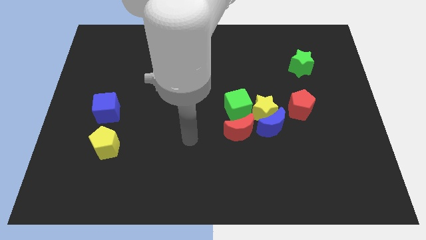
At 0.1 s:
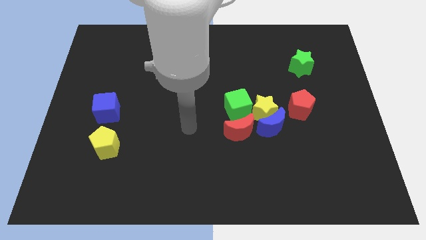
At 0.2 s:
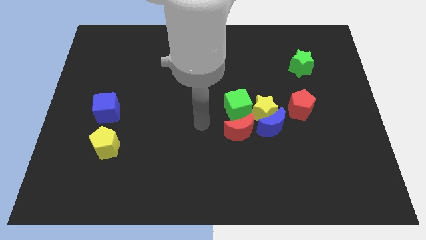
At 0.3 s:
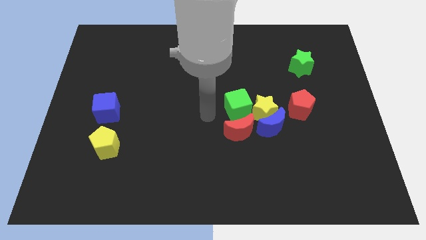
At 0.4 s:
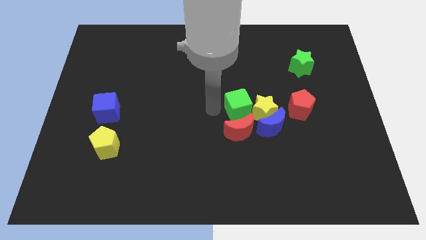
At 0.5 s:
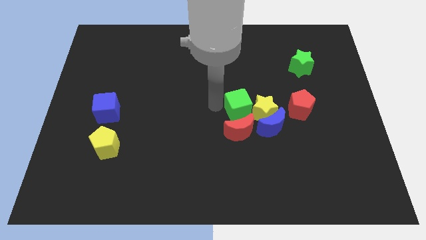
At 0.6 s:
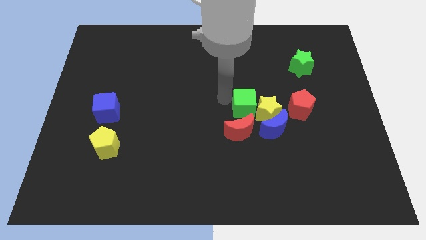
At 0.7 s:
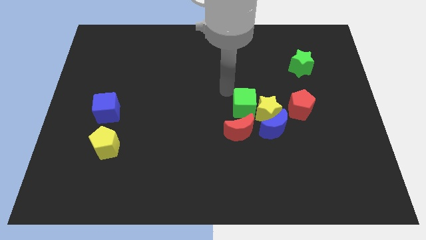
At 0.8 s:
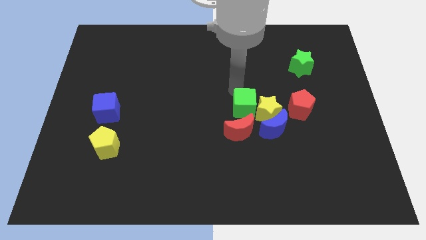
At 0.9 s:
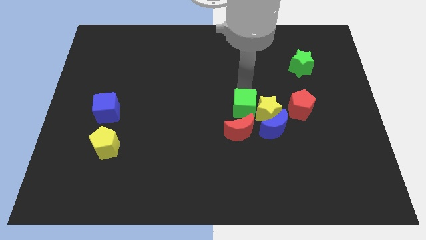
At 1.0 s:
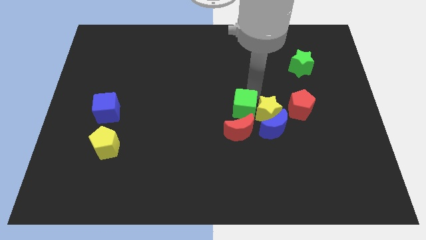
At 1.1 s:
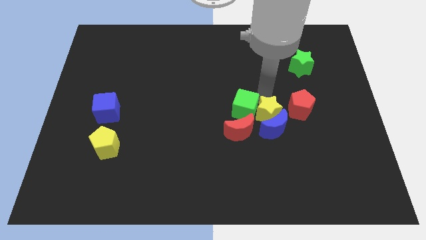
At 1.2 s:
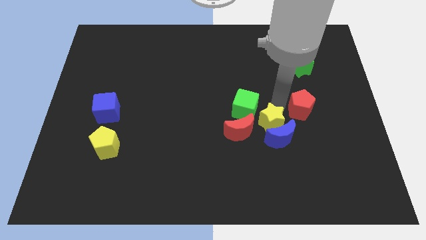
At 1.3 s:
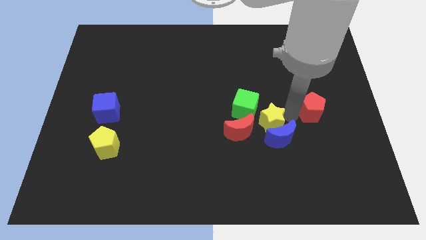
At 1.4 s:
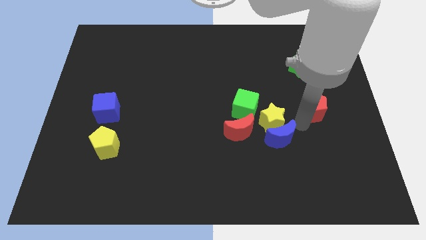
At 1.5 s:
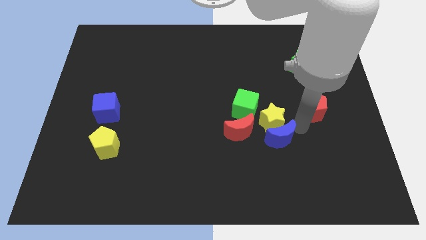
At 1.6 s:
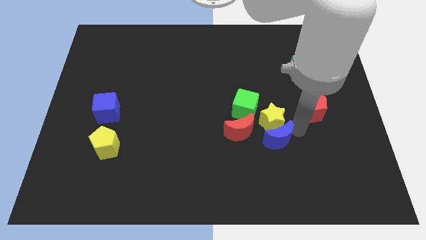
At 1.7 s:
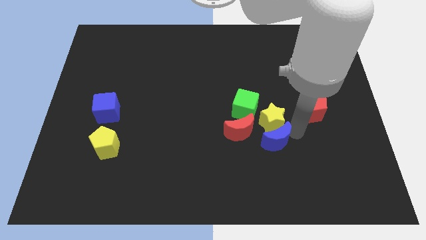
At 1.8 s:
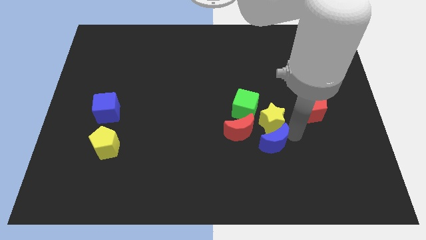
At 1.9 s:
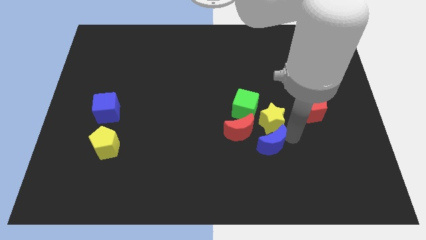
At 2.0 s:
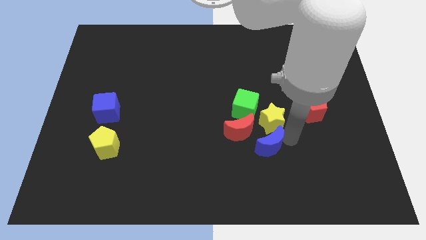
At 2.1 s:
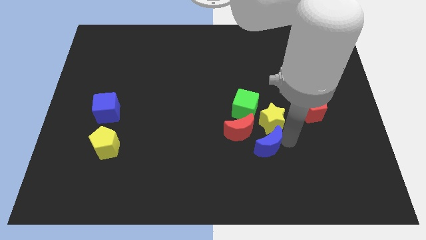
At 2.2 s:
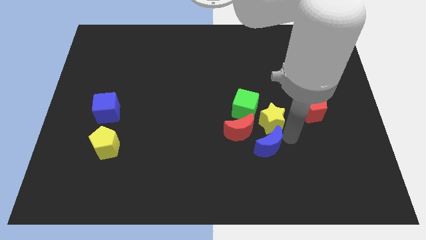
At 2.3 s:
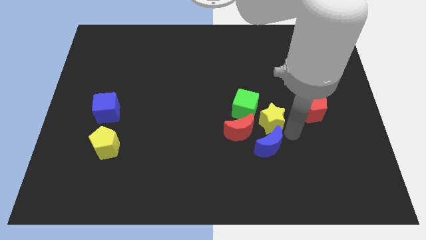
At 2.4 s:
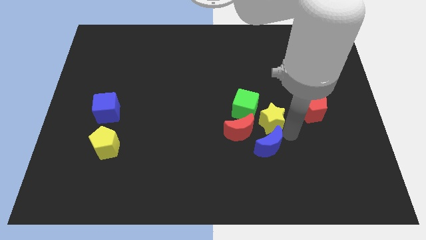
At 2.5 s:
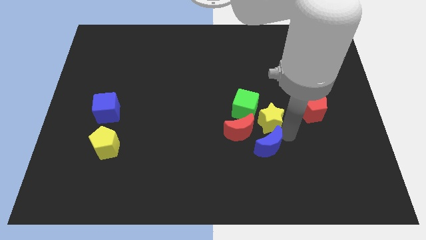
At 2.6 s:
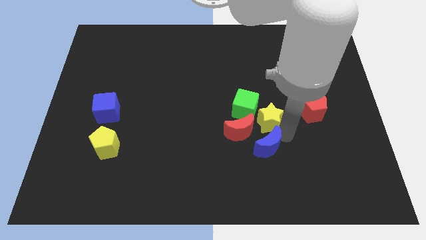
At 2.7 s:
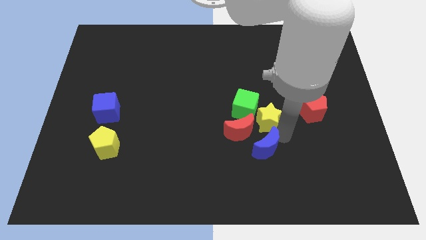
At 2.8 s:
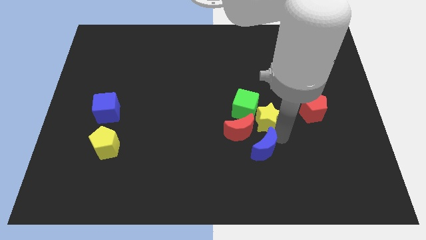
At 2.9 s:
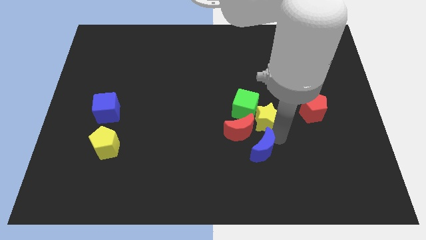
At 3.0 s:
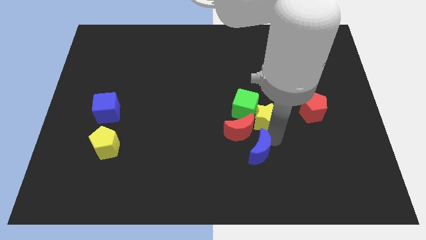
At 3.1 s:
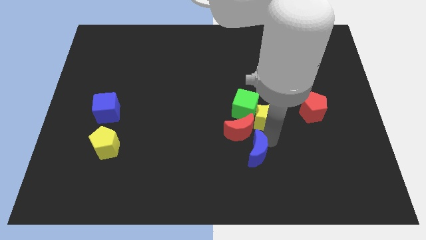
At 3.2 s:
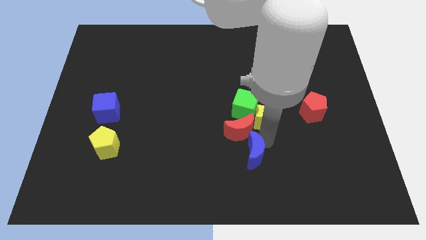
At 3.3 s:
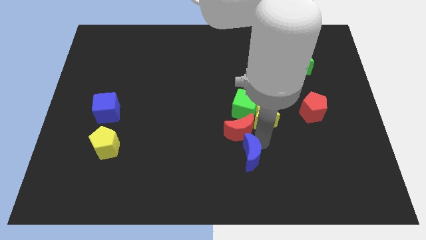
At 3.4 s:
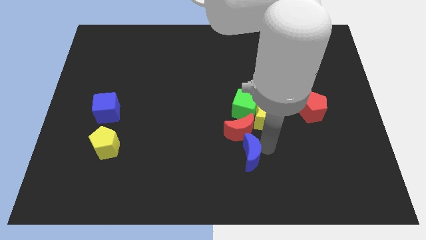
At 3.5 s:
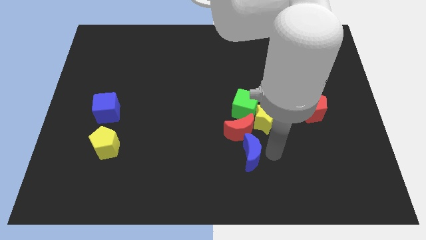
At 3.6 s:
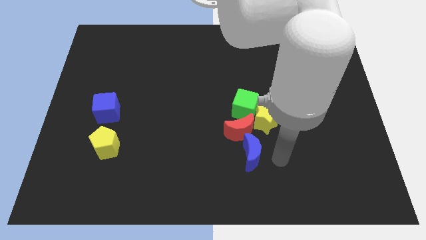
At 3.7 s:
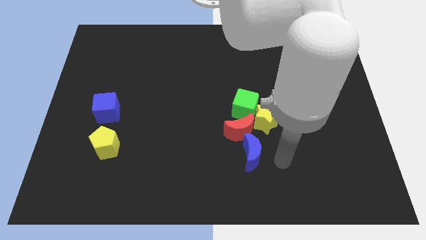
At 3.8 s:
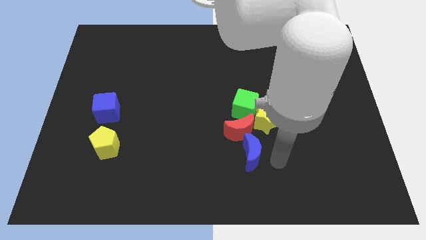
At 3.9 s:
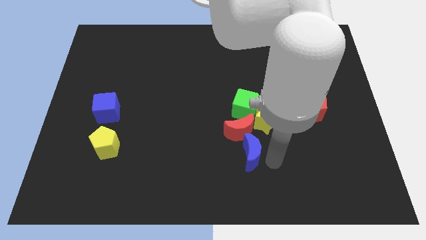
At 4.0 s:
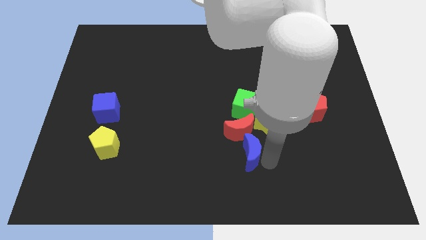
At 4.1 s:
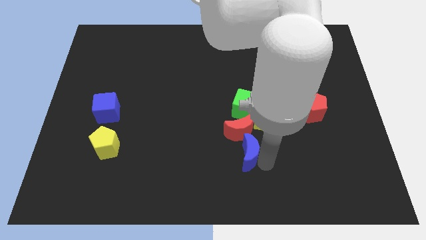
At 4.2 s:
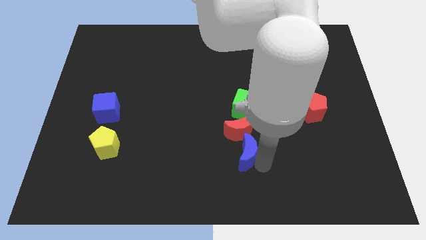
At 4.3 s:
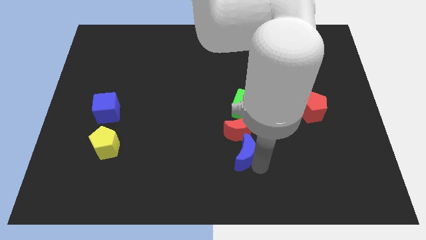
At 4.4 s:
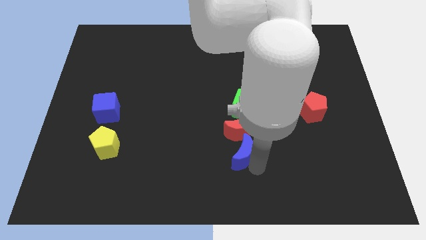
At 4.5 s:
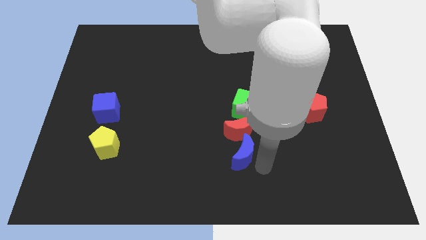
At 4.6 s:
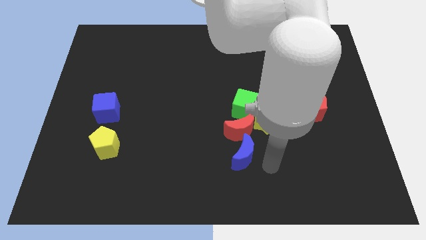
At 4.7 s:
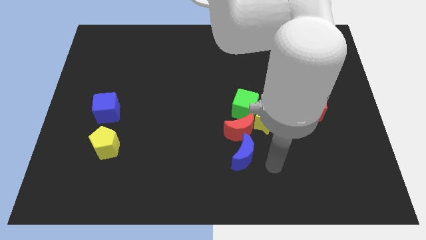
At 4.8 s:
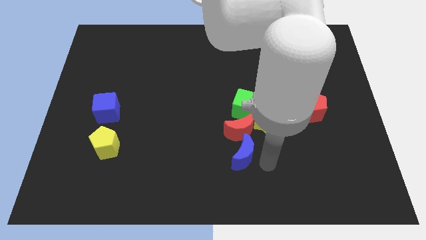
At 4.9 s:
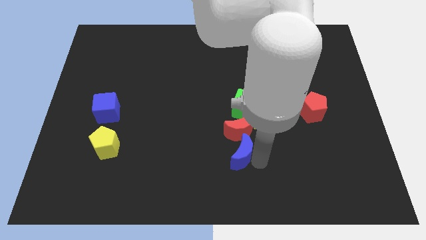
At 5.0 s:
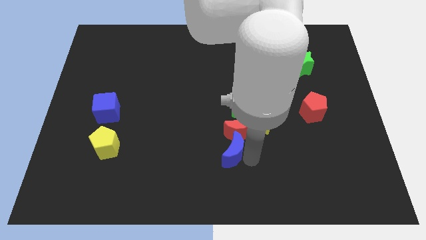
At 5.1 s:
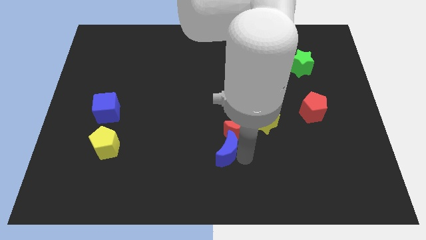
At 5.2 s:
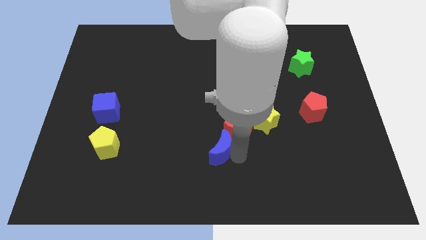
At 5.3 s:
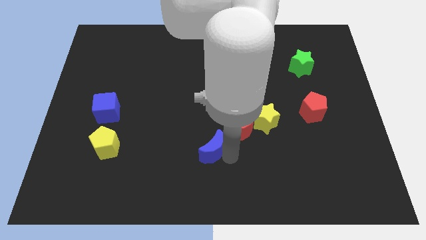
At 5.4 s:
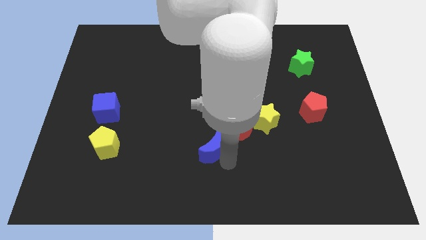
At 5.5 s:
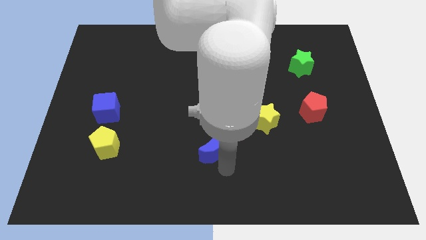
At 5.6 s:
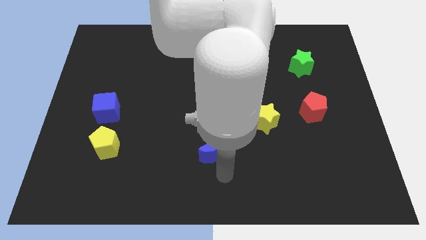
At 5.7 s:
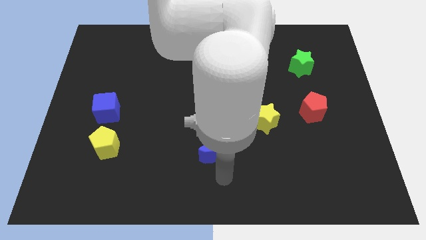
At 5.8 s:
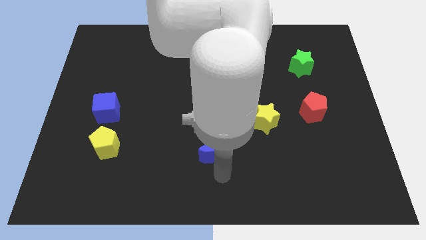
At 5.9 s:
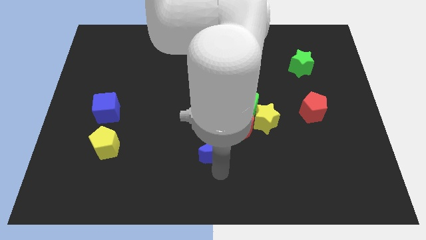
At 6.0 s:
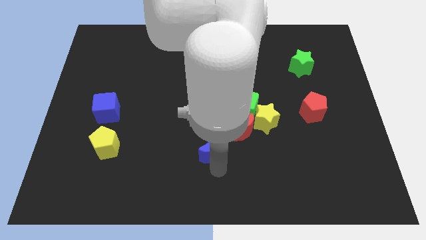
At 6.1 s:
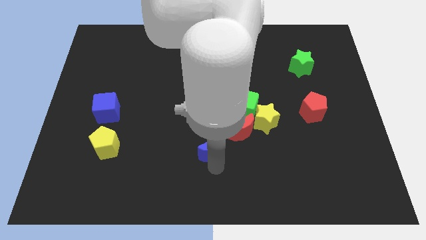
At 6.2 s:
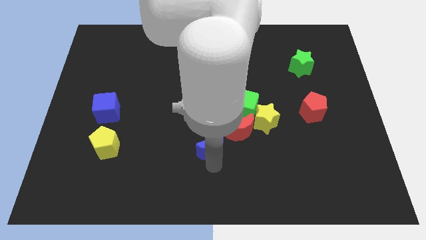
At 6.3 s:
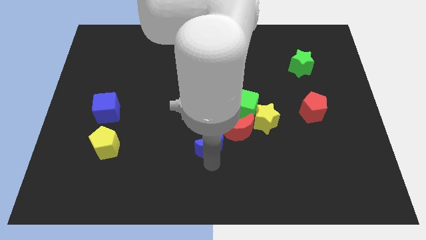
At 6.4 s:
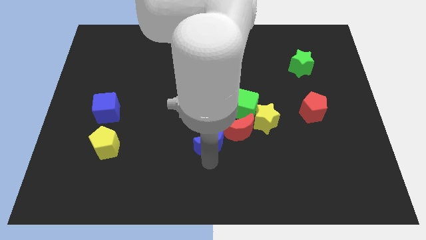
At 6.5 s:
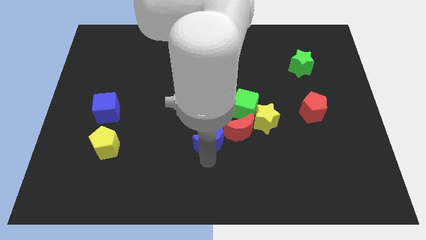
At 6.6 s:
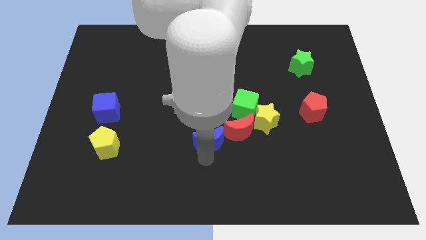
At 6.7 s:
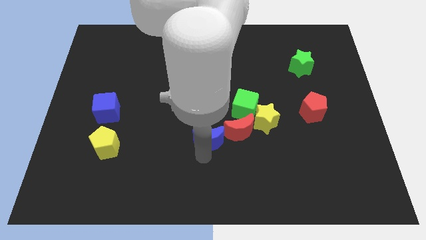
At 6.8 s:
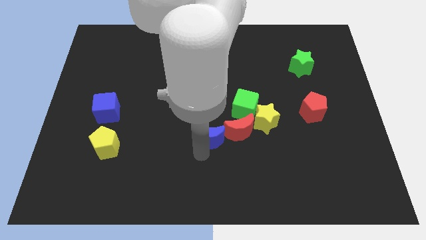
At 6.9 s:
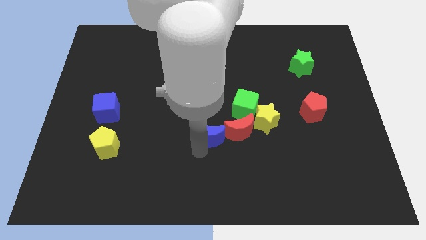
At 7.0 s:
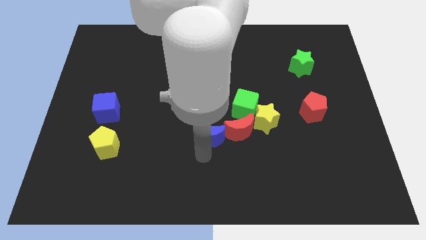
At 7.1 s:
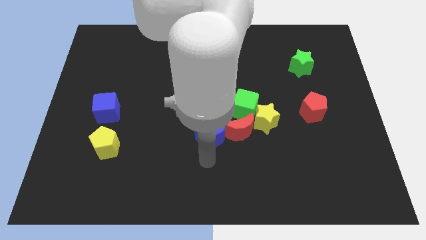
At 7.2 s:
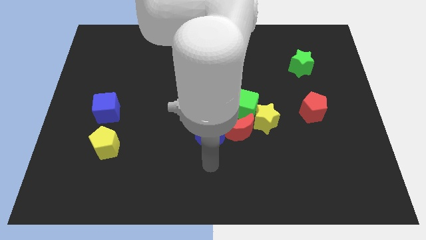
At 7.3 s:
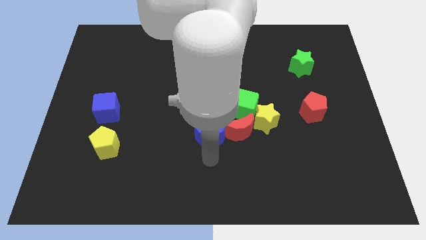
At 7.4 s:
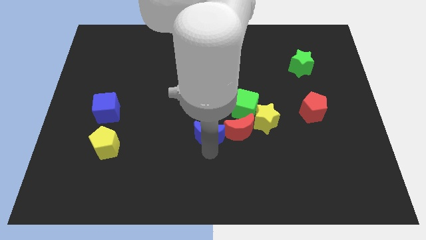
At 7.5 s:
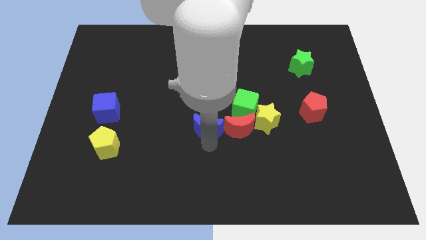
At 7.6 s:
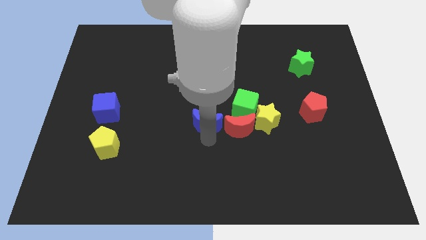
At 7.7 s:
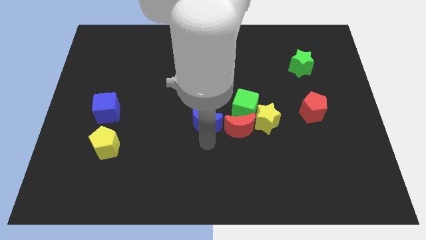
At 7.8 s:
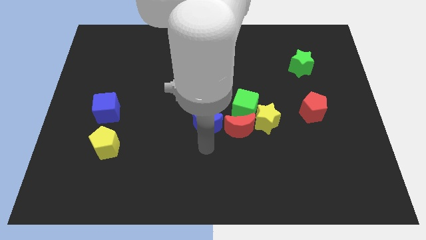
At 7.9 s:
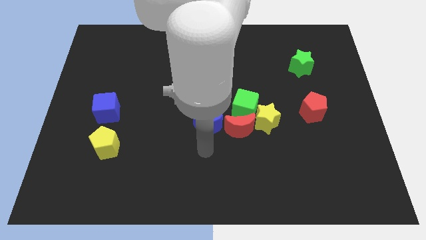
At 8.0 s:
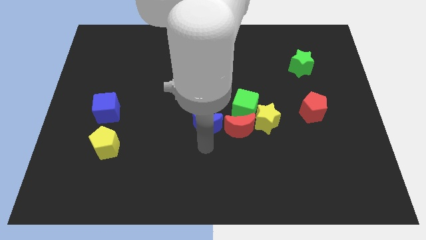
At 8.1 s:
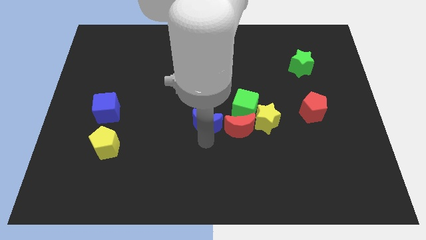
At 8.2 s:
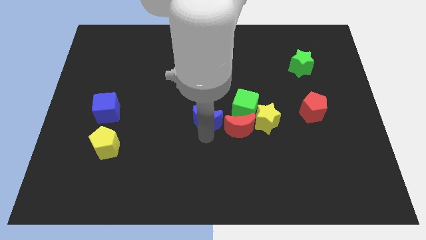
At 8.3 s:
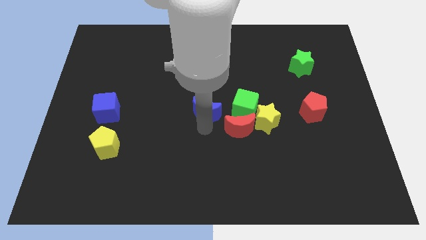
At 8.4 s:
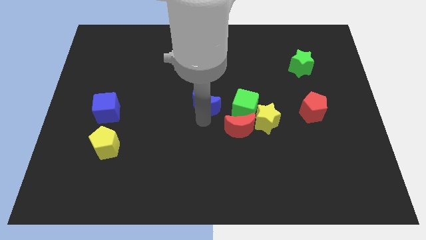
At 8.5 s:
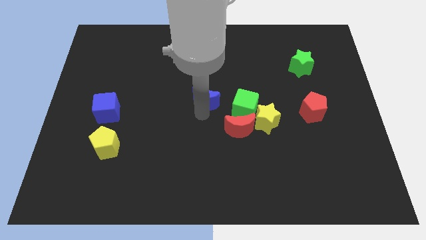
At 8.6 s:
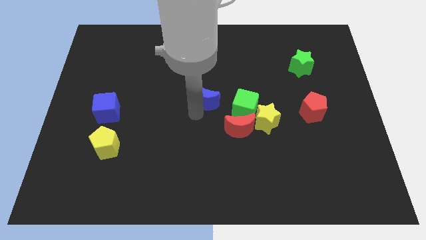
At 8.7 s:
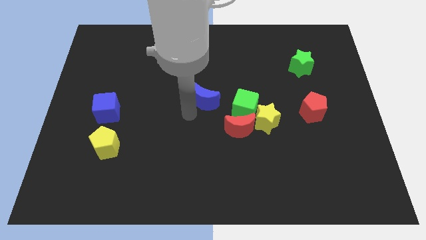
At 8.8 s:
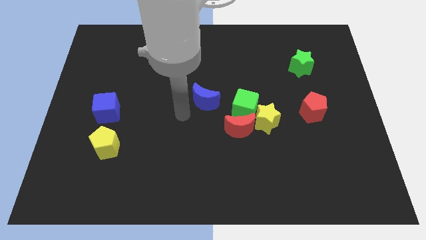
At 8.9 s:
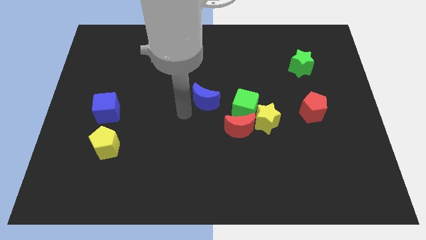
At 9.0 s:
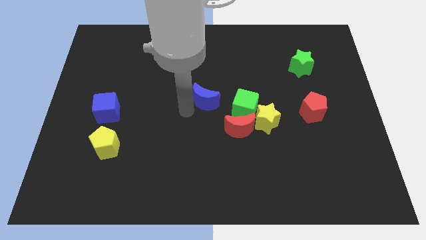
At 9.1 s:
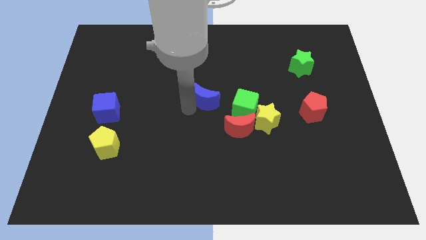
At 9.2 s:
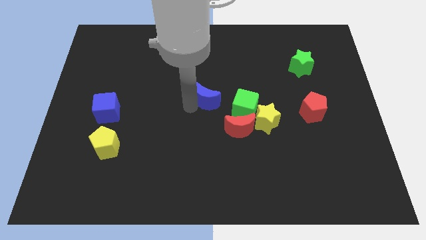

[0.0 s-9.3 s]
push the blue moon to the top left side of the green cube
